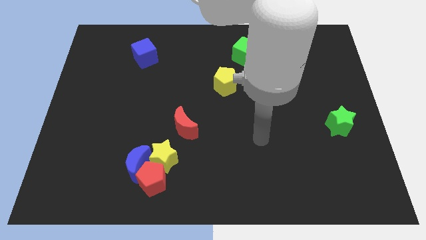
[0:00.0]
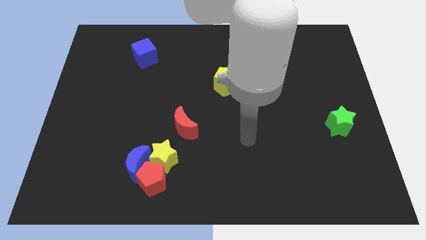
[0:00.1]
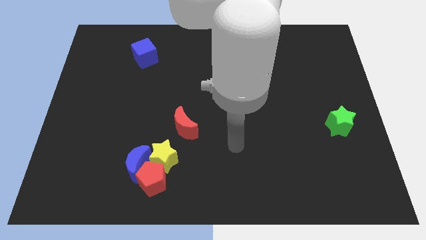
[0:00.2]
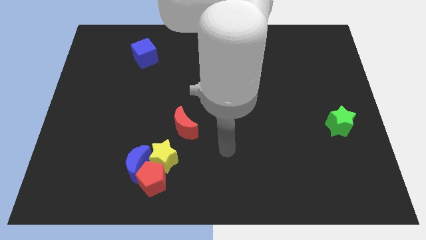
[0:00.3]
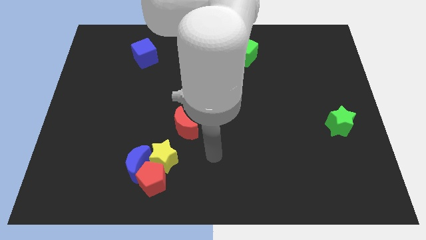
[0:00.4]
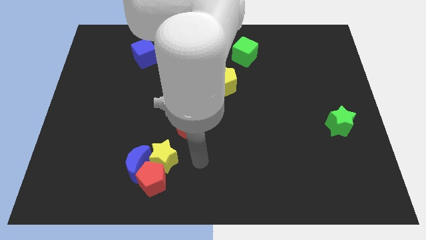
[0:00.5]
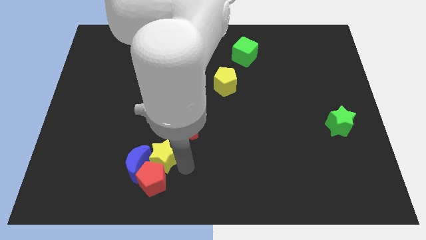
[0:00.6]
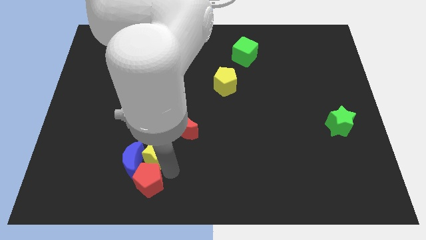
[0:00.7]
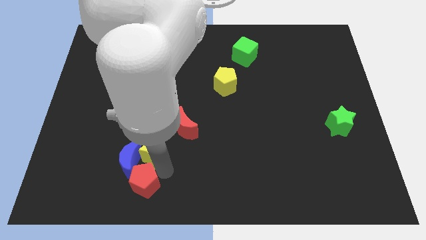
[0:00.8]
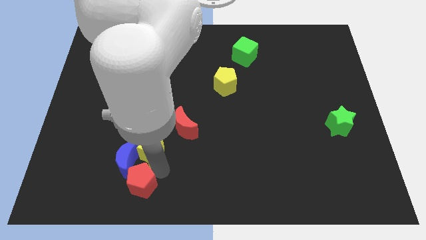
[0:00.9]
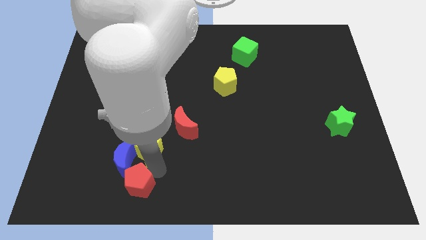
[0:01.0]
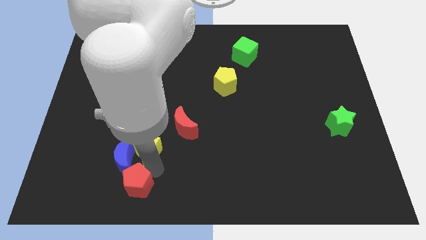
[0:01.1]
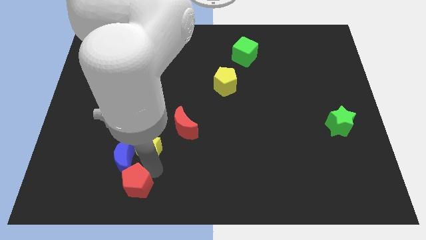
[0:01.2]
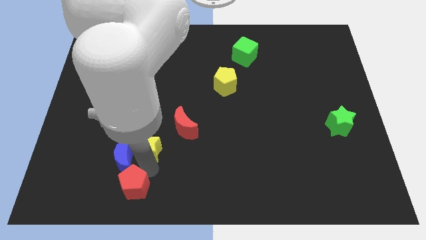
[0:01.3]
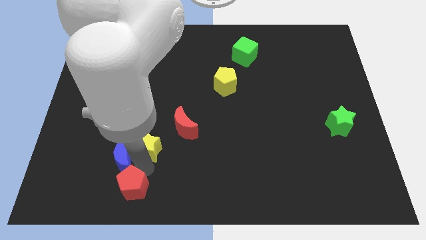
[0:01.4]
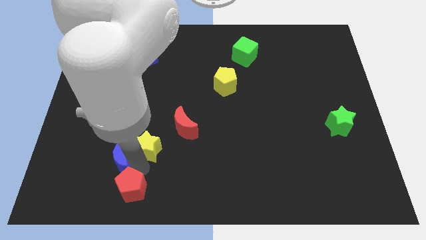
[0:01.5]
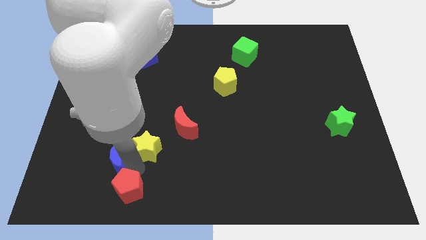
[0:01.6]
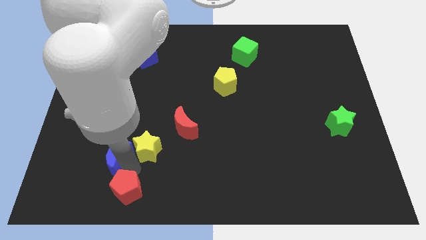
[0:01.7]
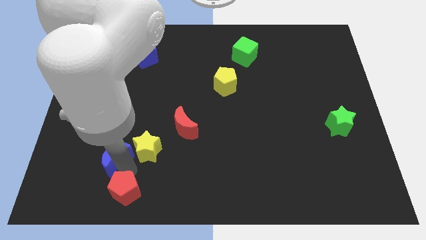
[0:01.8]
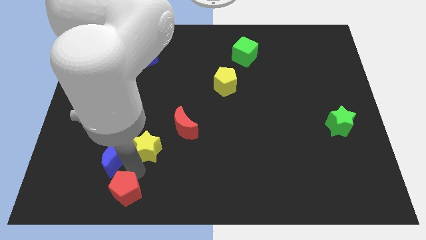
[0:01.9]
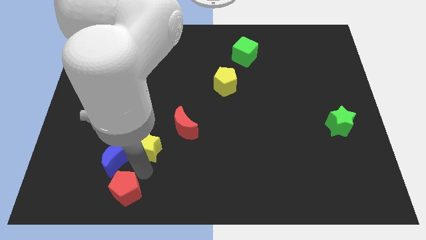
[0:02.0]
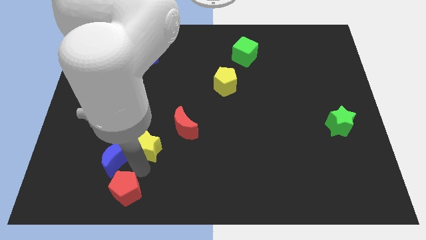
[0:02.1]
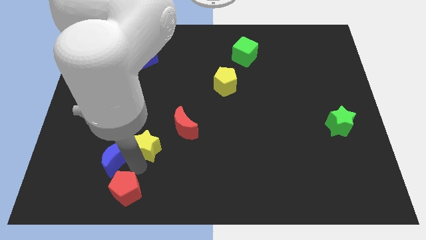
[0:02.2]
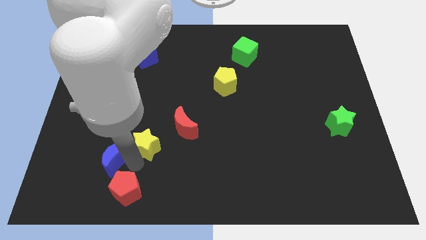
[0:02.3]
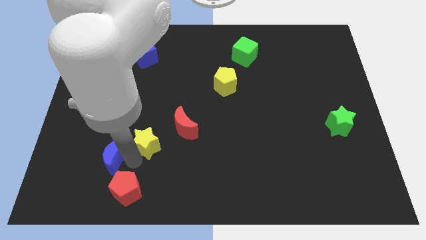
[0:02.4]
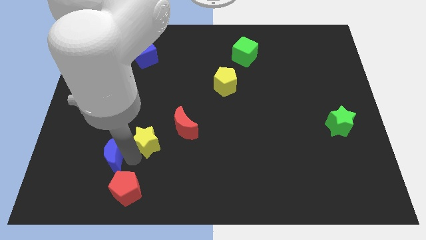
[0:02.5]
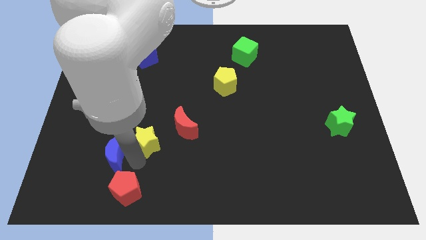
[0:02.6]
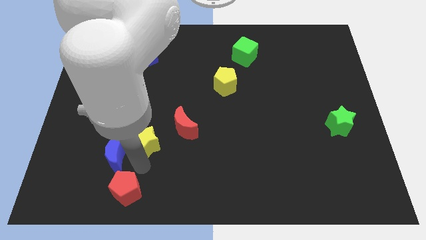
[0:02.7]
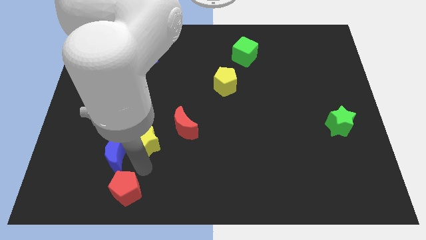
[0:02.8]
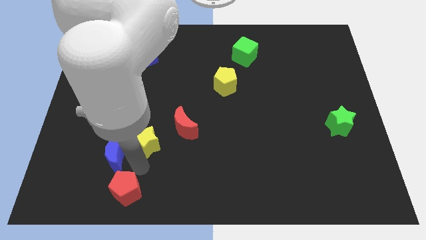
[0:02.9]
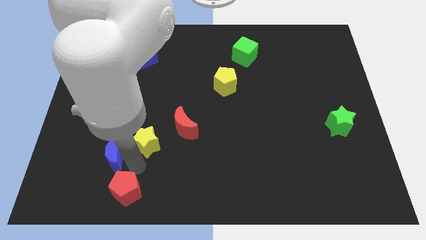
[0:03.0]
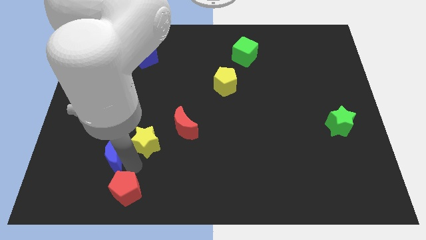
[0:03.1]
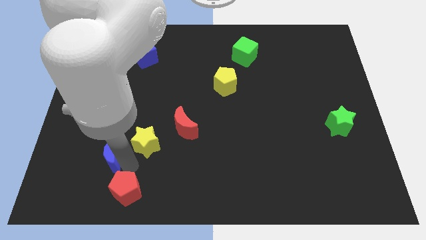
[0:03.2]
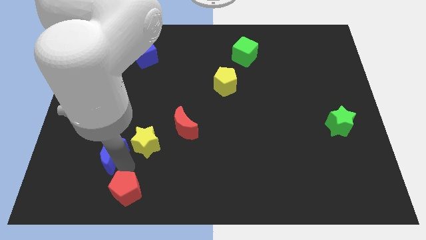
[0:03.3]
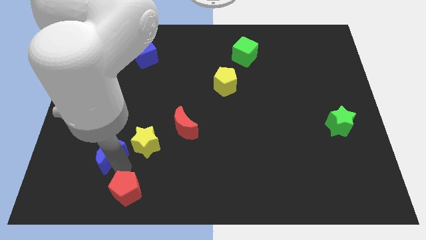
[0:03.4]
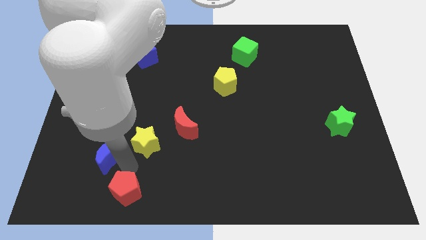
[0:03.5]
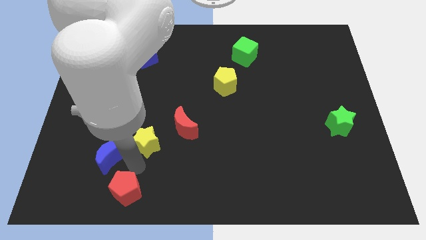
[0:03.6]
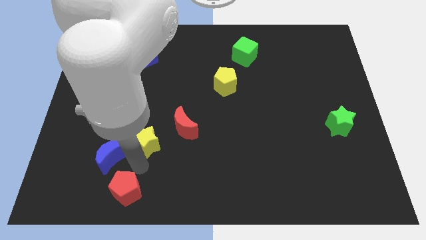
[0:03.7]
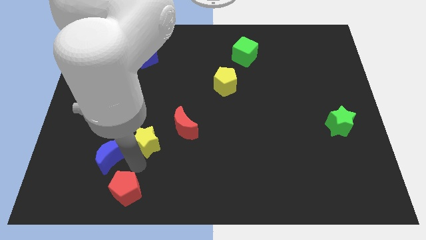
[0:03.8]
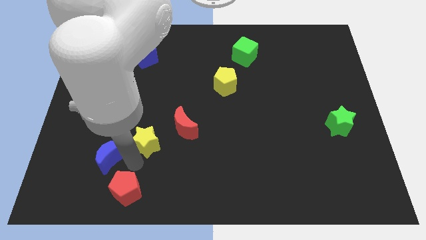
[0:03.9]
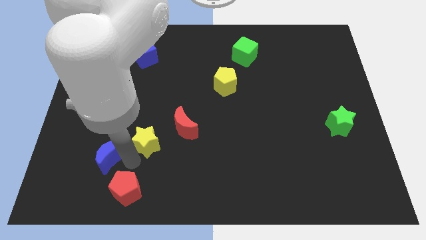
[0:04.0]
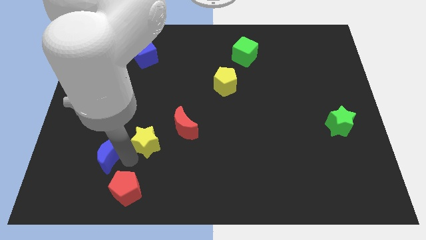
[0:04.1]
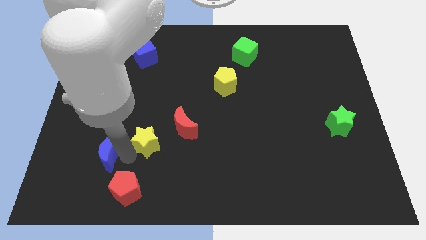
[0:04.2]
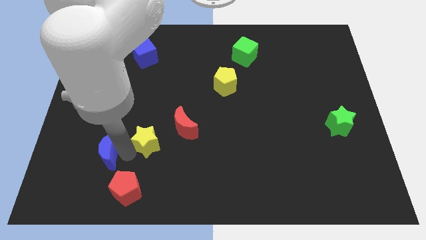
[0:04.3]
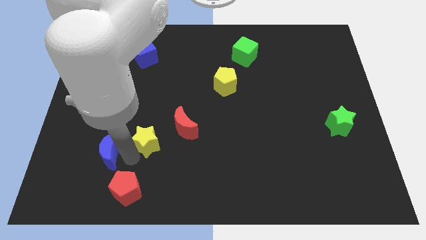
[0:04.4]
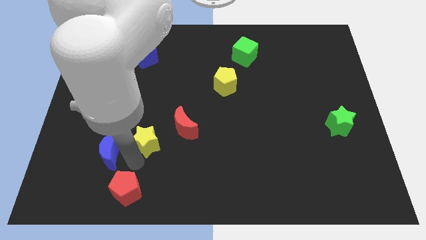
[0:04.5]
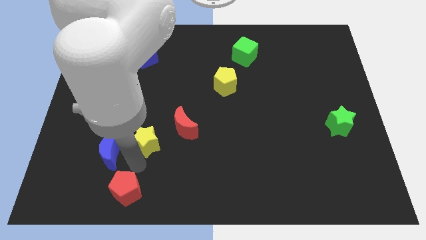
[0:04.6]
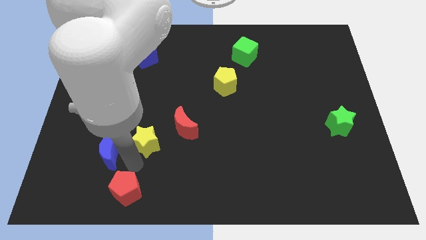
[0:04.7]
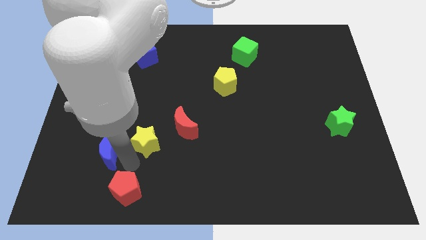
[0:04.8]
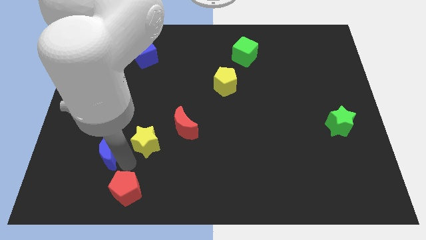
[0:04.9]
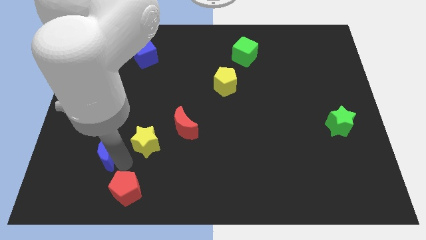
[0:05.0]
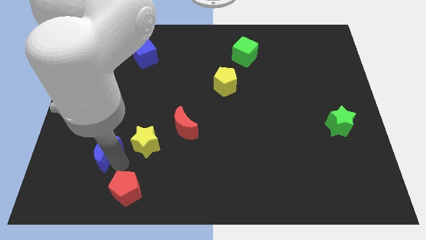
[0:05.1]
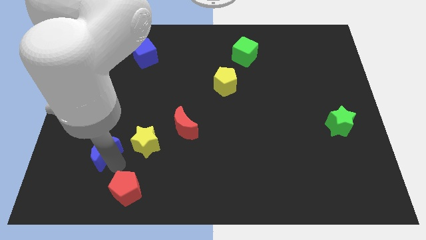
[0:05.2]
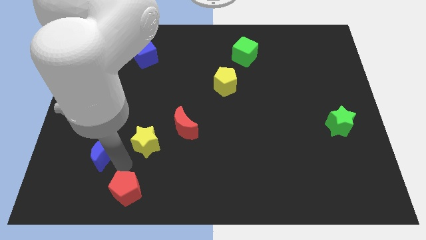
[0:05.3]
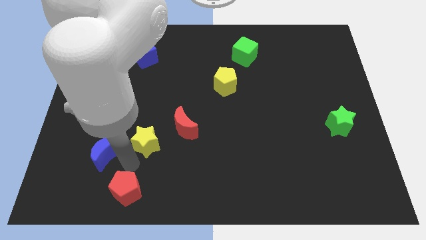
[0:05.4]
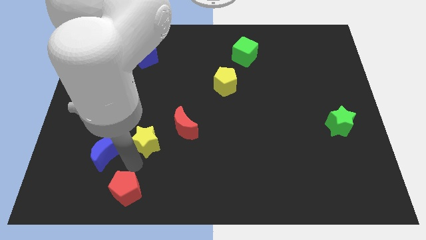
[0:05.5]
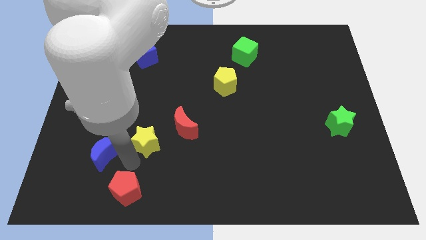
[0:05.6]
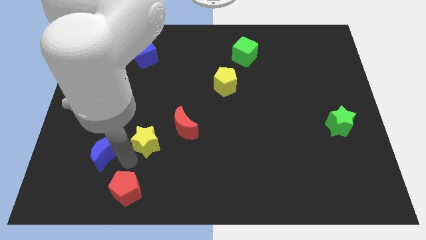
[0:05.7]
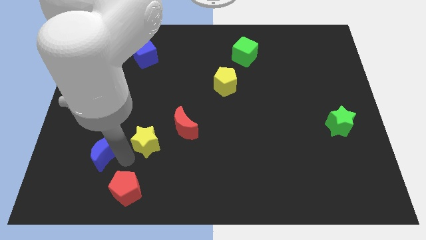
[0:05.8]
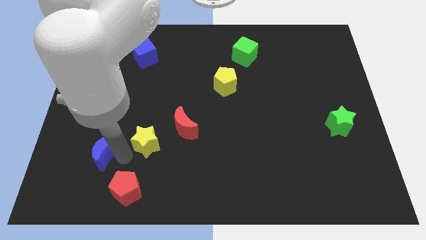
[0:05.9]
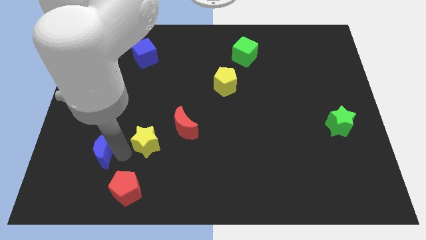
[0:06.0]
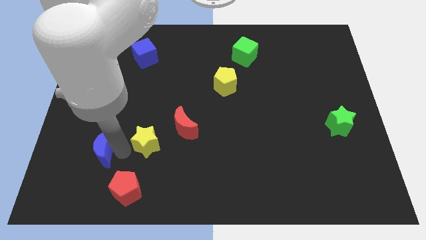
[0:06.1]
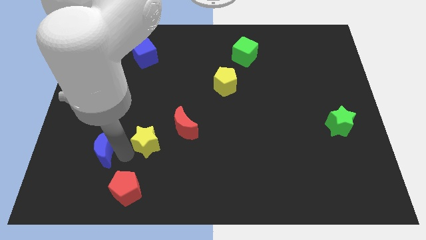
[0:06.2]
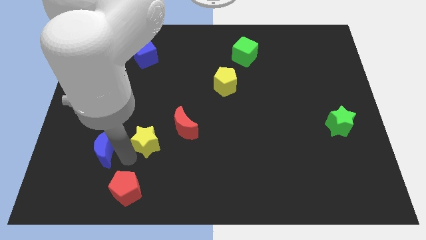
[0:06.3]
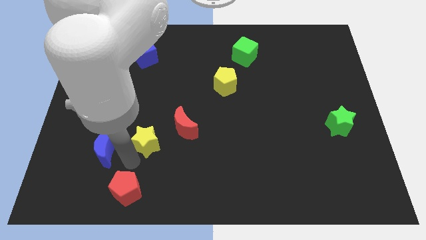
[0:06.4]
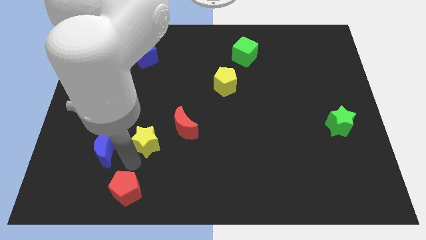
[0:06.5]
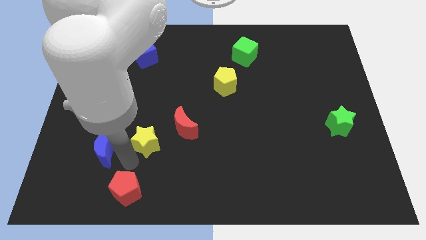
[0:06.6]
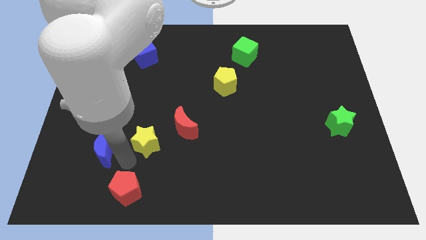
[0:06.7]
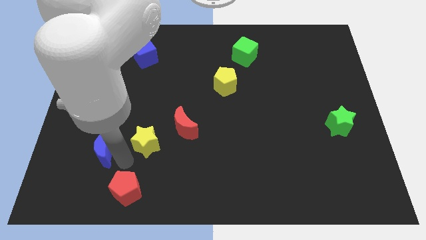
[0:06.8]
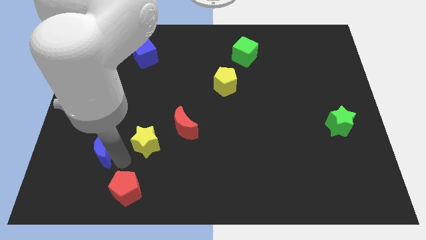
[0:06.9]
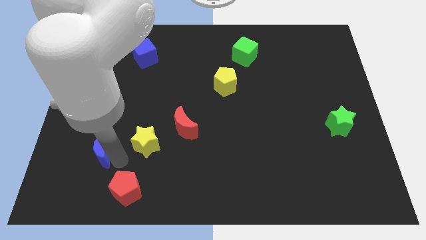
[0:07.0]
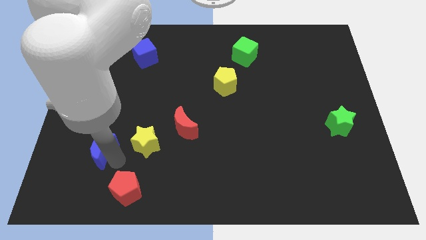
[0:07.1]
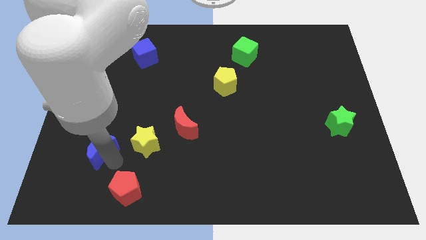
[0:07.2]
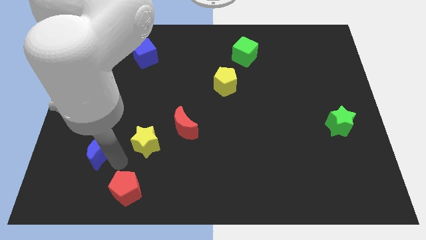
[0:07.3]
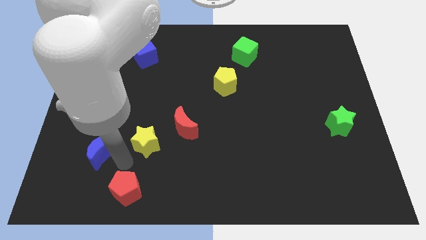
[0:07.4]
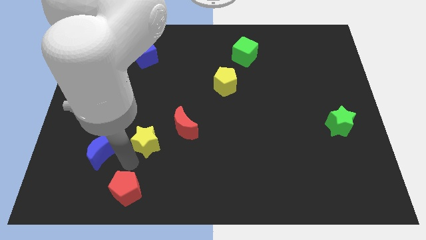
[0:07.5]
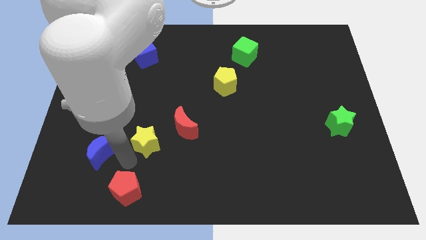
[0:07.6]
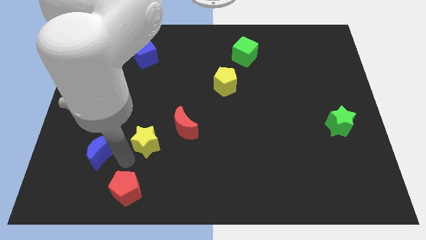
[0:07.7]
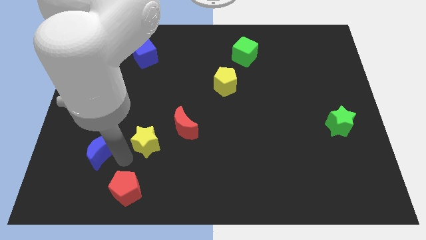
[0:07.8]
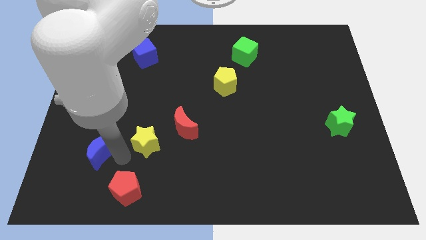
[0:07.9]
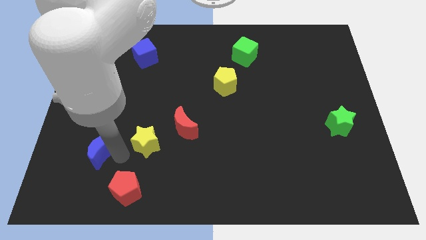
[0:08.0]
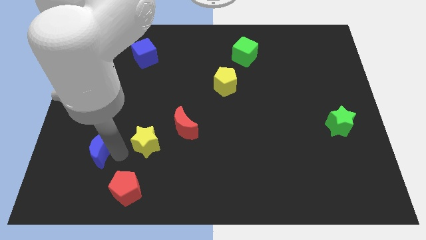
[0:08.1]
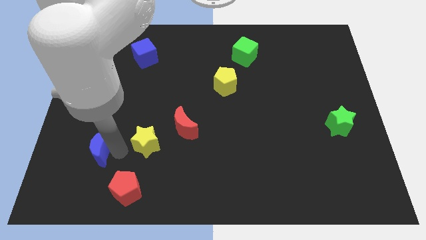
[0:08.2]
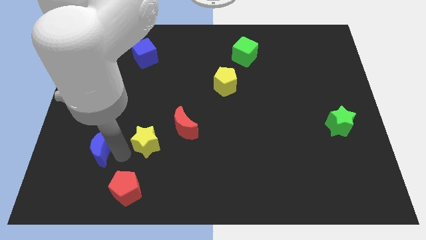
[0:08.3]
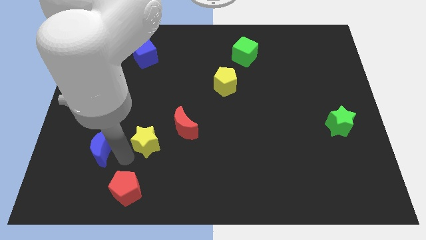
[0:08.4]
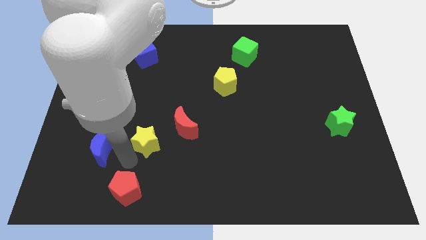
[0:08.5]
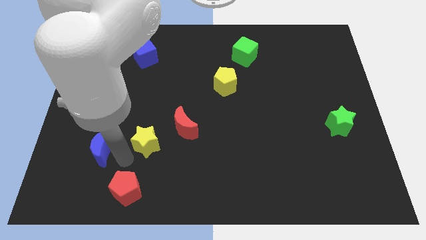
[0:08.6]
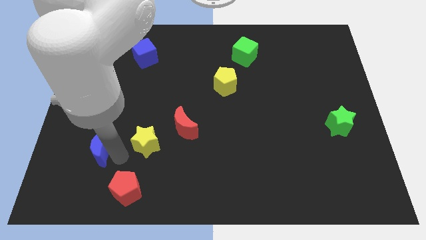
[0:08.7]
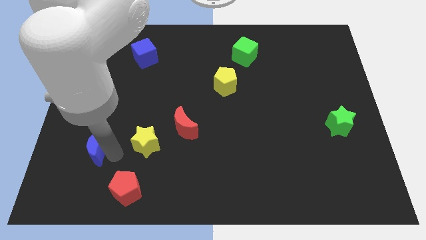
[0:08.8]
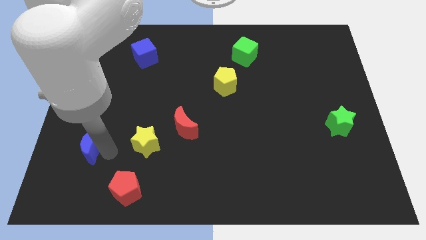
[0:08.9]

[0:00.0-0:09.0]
move the blue moon away from the red pentagon and yellow star

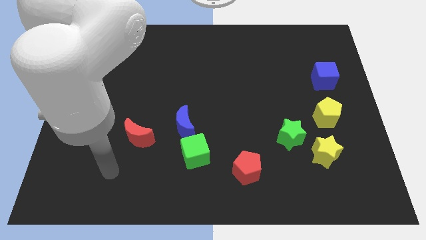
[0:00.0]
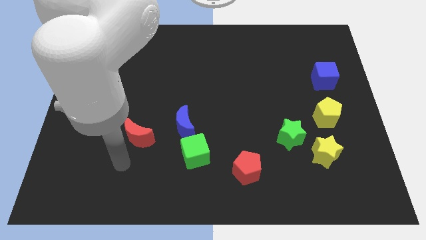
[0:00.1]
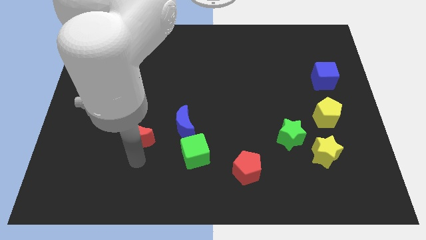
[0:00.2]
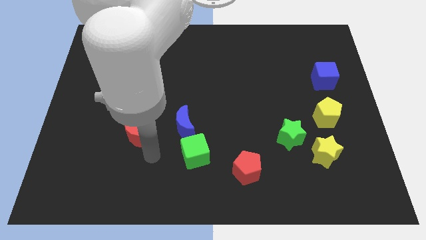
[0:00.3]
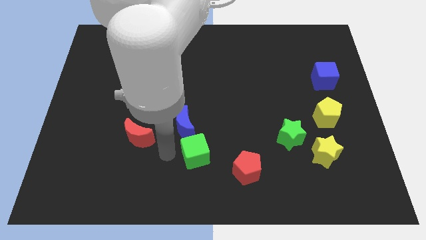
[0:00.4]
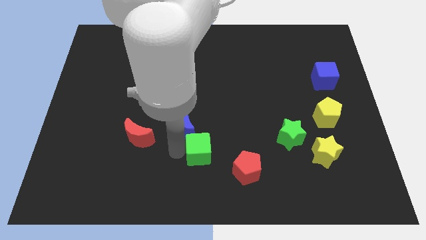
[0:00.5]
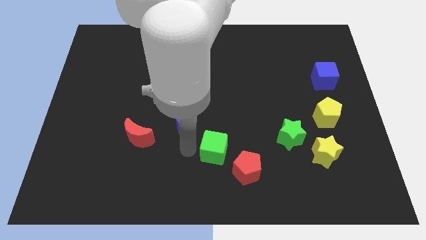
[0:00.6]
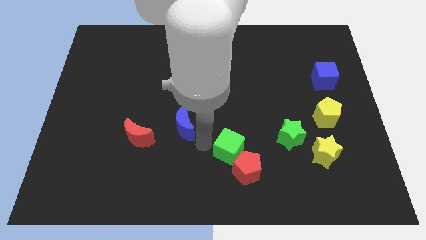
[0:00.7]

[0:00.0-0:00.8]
move the blue moon away from the green cube
